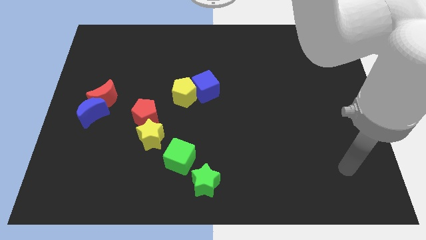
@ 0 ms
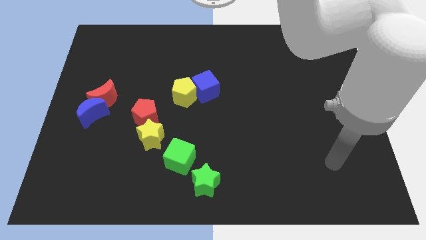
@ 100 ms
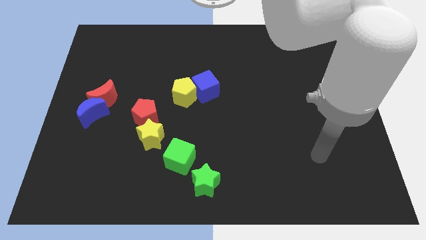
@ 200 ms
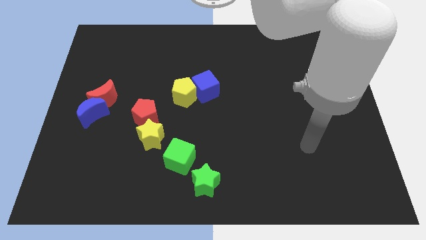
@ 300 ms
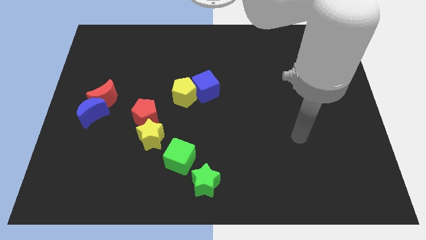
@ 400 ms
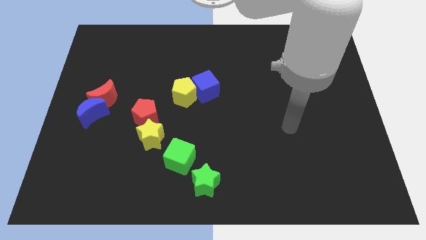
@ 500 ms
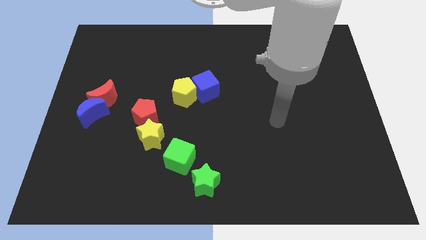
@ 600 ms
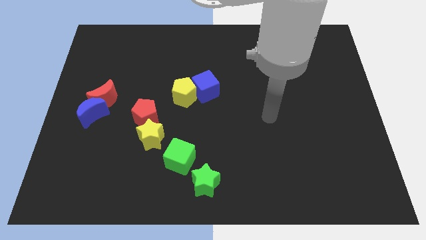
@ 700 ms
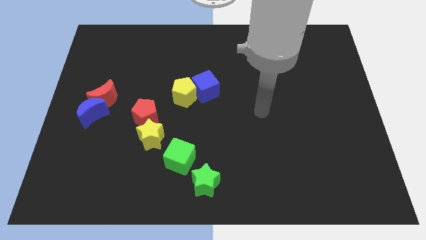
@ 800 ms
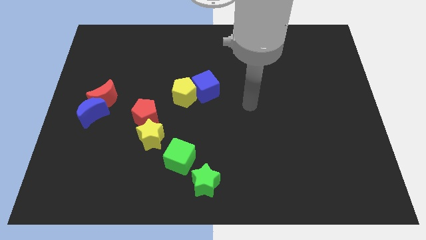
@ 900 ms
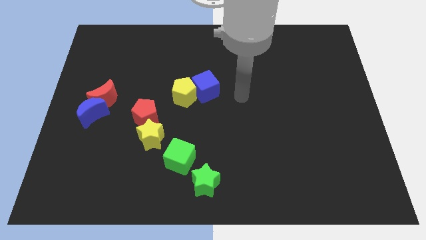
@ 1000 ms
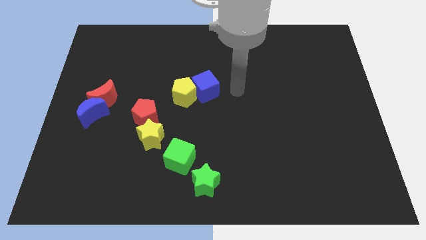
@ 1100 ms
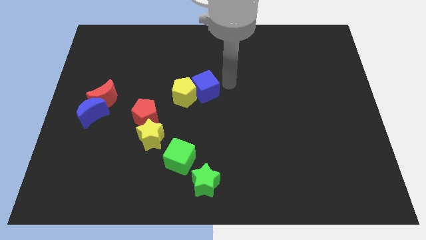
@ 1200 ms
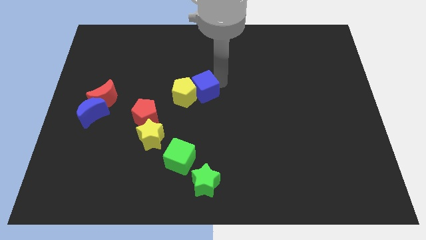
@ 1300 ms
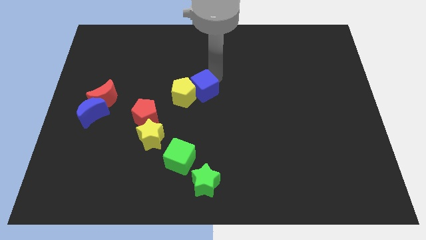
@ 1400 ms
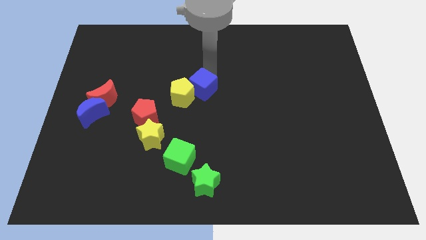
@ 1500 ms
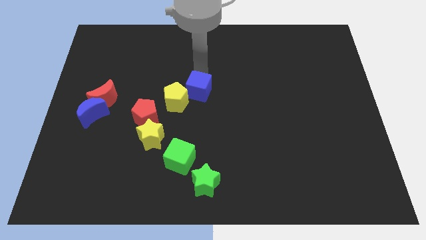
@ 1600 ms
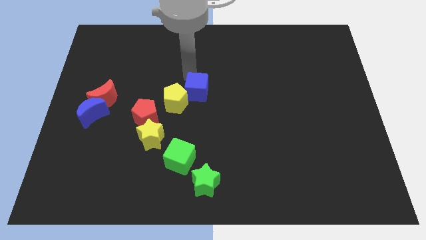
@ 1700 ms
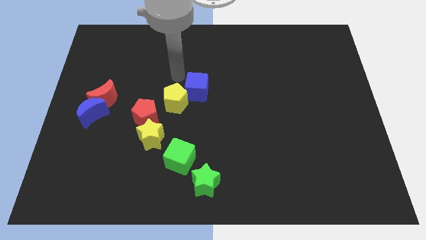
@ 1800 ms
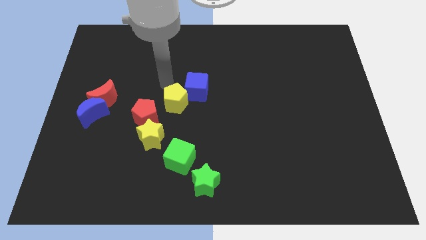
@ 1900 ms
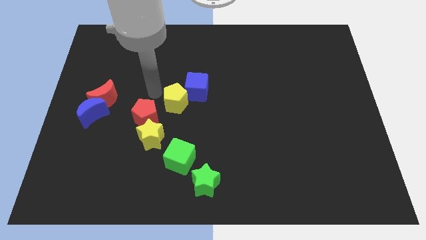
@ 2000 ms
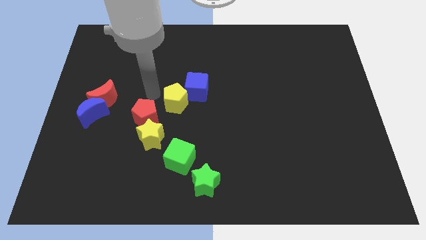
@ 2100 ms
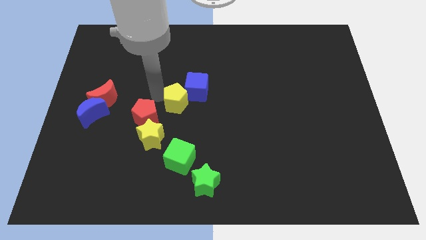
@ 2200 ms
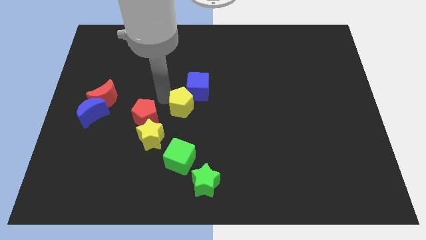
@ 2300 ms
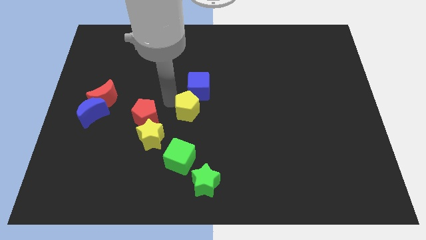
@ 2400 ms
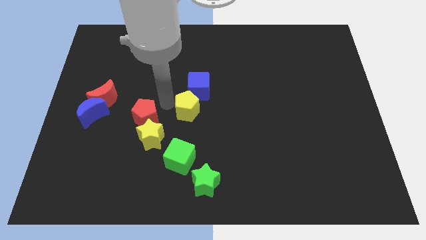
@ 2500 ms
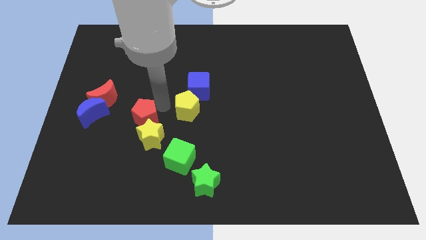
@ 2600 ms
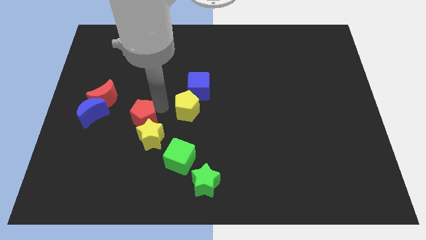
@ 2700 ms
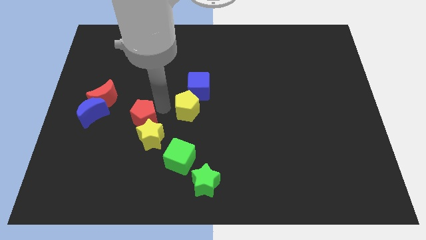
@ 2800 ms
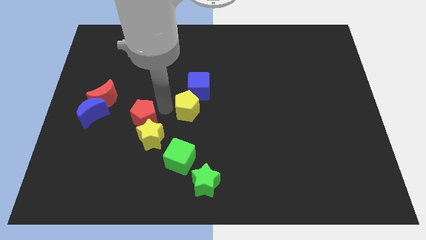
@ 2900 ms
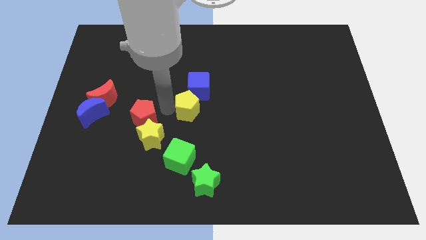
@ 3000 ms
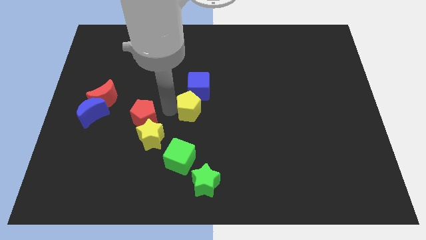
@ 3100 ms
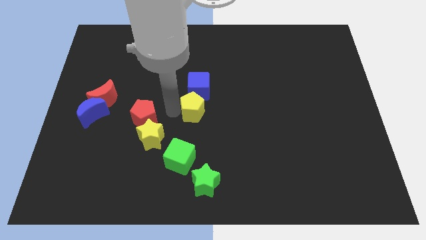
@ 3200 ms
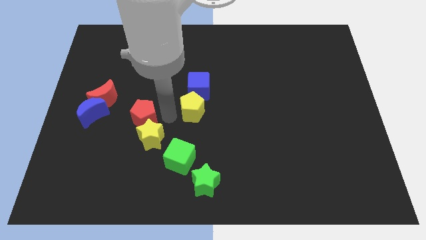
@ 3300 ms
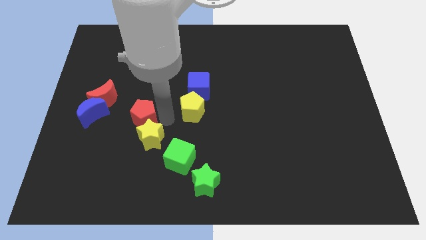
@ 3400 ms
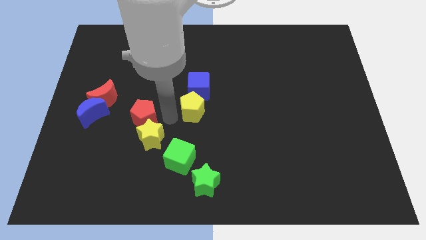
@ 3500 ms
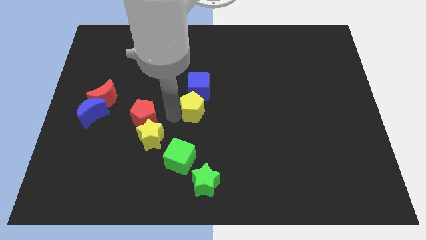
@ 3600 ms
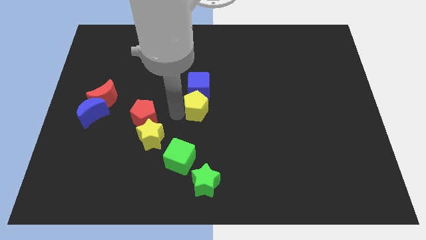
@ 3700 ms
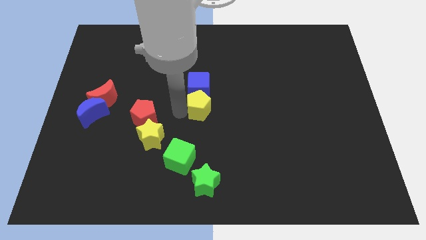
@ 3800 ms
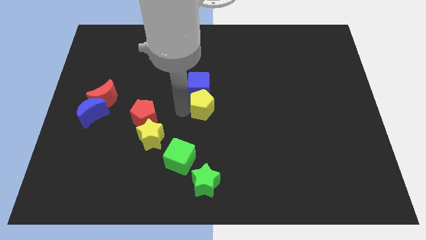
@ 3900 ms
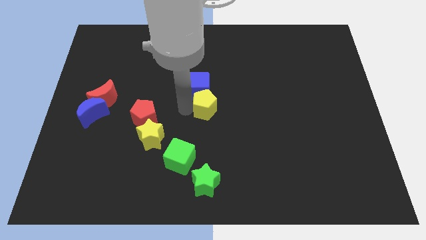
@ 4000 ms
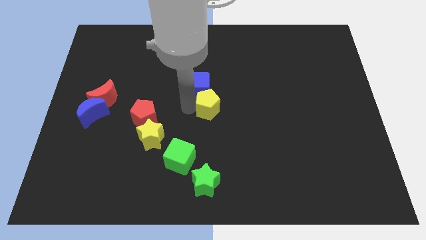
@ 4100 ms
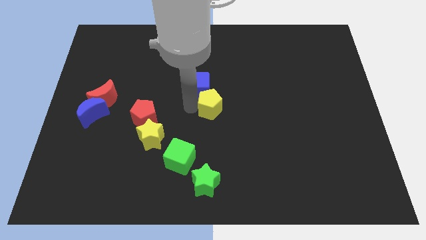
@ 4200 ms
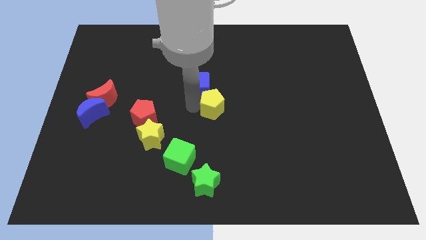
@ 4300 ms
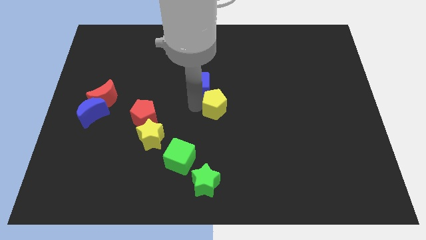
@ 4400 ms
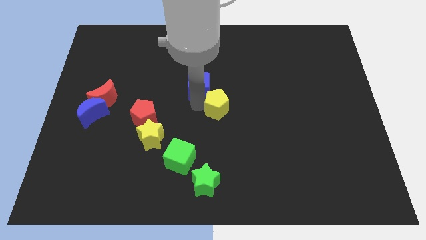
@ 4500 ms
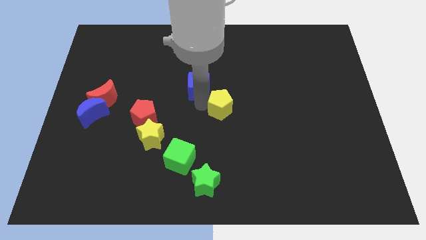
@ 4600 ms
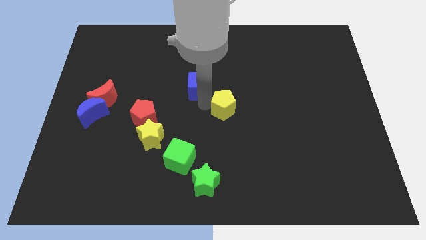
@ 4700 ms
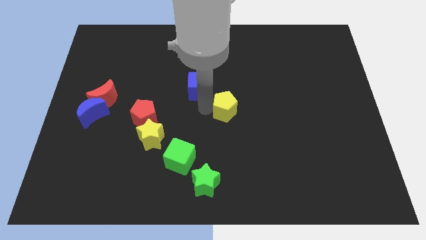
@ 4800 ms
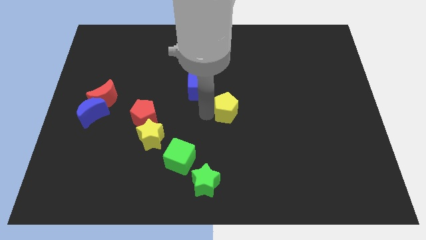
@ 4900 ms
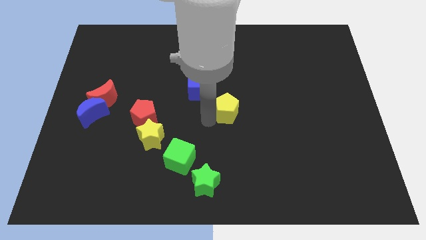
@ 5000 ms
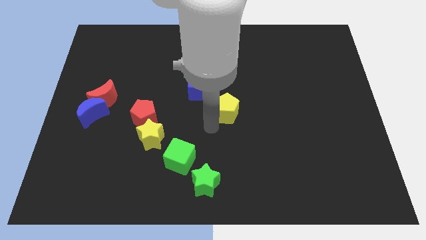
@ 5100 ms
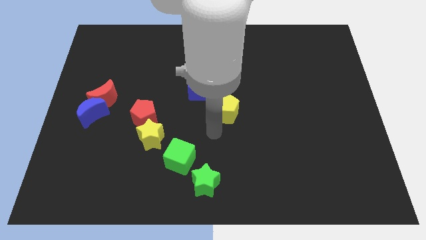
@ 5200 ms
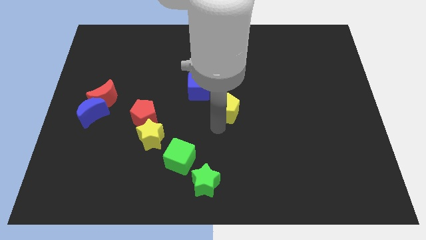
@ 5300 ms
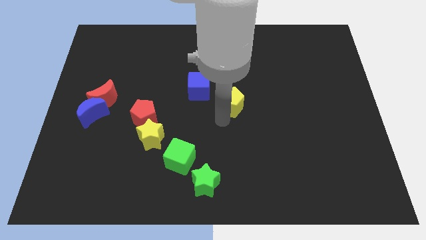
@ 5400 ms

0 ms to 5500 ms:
put the yellow pentagon to the right side of the blue cube

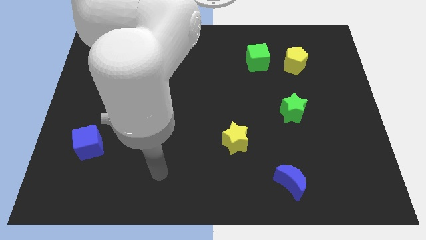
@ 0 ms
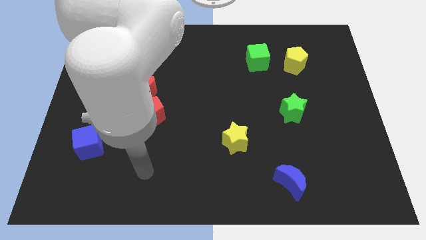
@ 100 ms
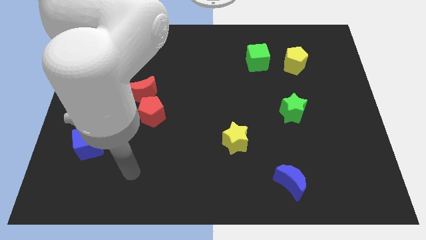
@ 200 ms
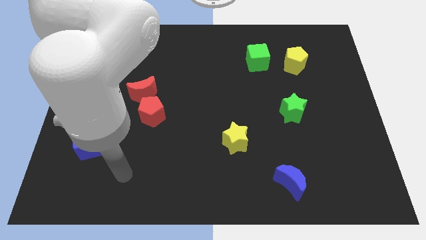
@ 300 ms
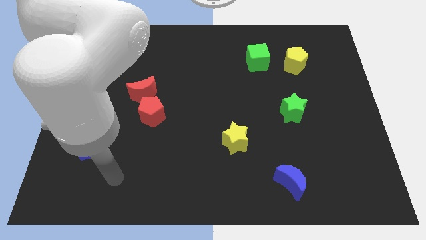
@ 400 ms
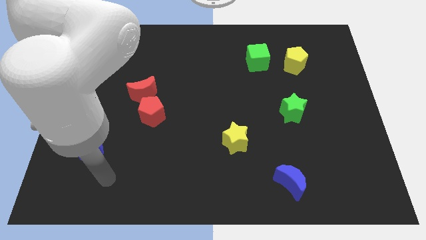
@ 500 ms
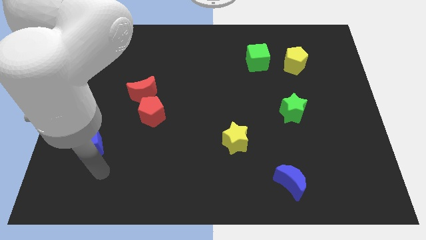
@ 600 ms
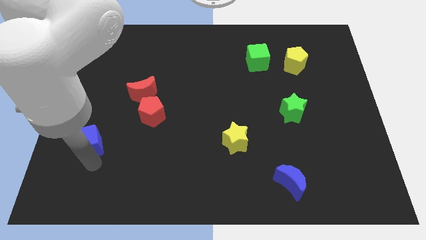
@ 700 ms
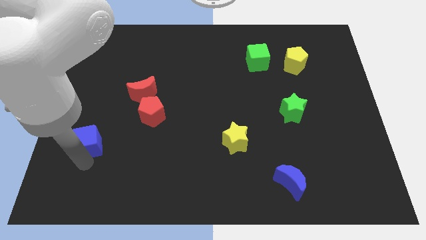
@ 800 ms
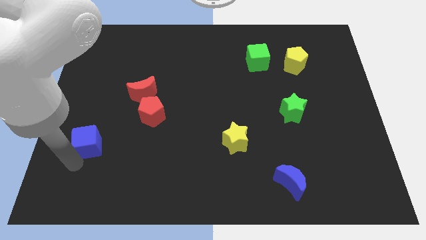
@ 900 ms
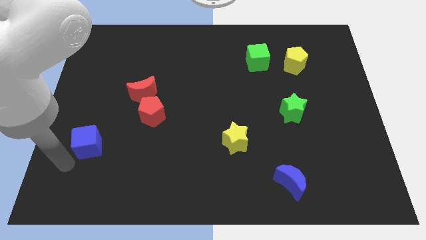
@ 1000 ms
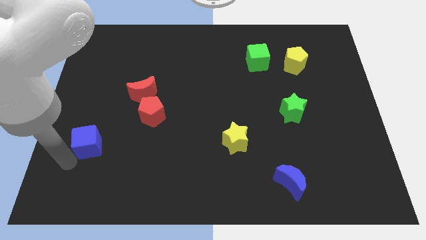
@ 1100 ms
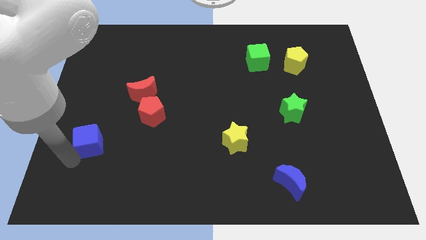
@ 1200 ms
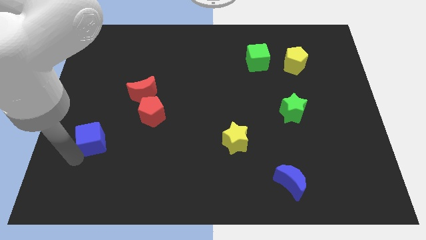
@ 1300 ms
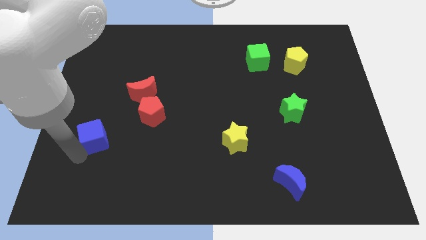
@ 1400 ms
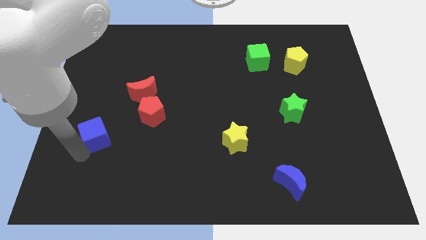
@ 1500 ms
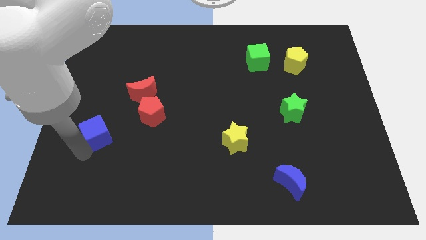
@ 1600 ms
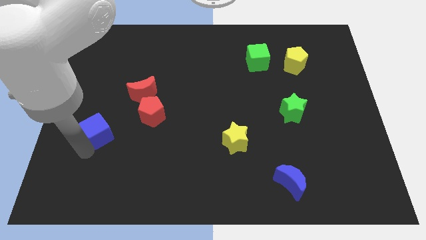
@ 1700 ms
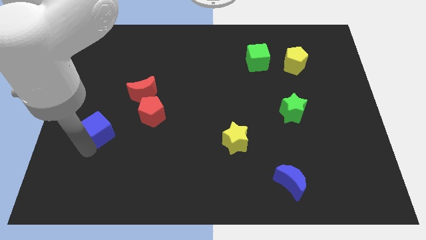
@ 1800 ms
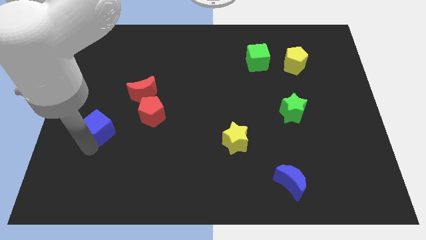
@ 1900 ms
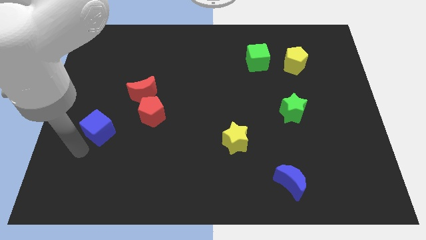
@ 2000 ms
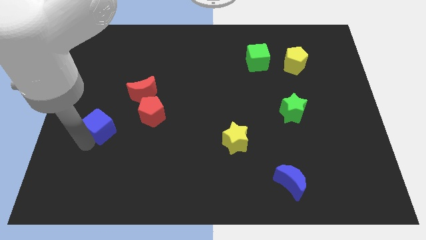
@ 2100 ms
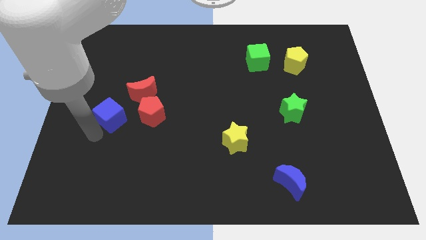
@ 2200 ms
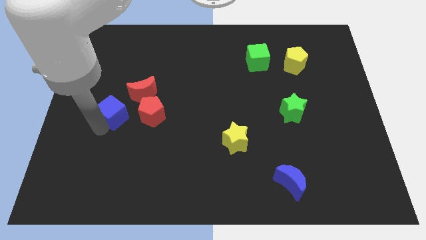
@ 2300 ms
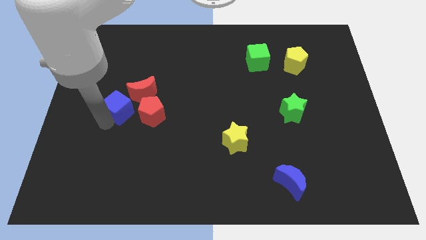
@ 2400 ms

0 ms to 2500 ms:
push the blue cube to the top left of the red pentagon
